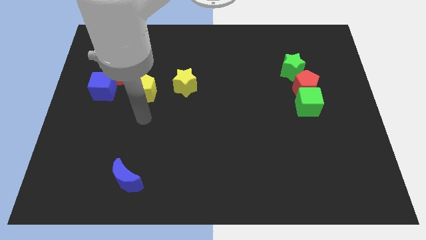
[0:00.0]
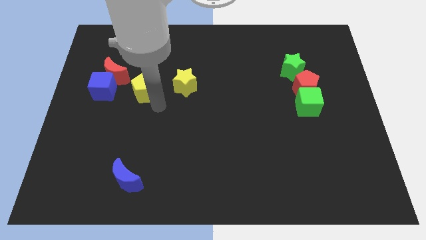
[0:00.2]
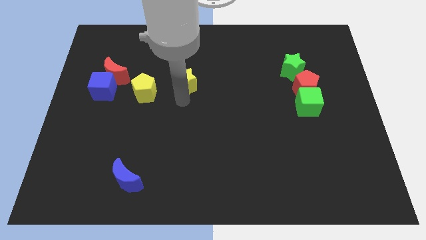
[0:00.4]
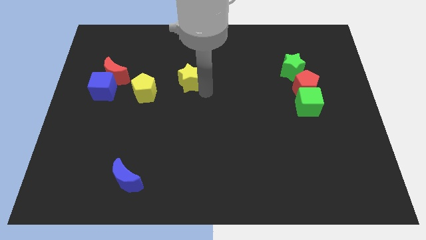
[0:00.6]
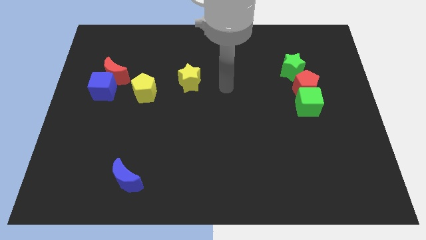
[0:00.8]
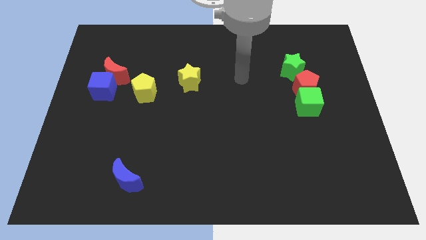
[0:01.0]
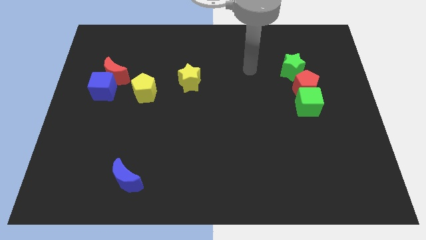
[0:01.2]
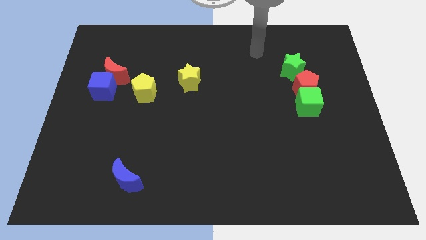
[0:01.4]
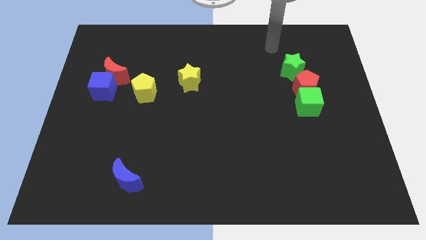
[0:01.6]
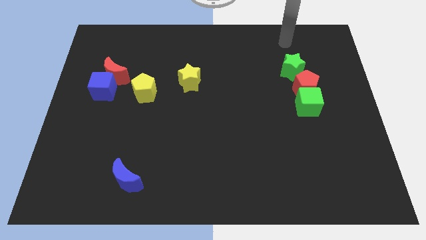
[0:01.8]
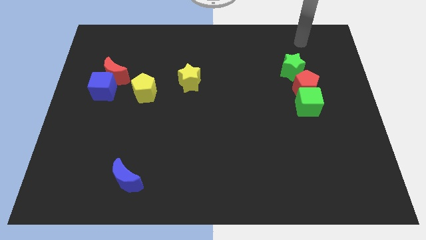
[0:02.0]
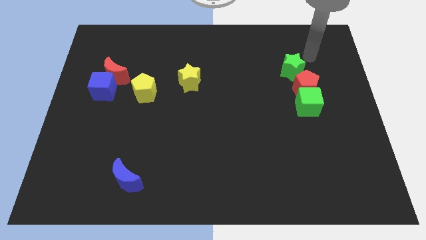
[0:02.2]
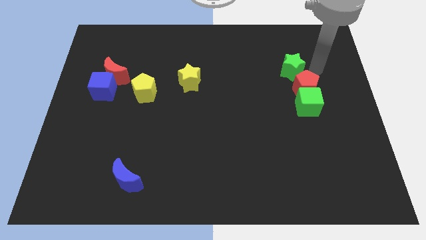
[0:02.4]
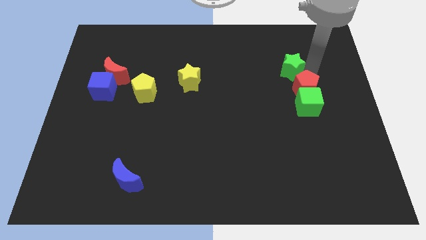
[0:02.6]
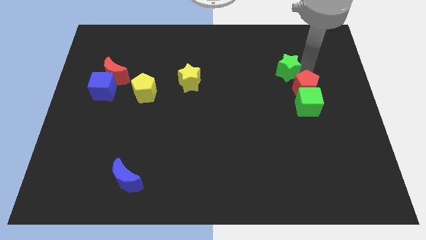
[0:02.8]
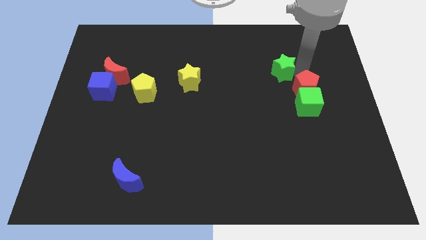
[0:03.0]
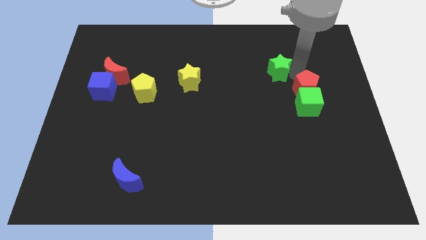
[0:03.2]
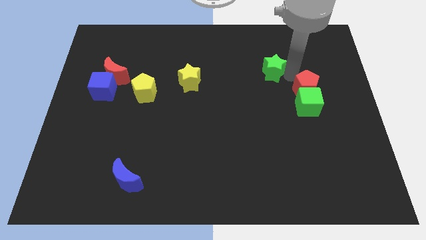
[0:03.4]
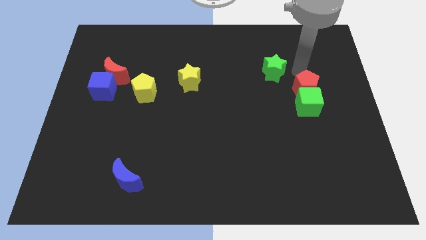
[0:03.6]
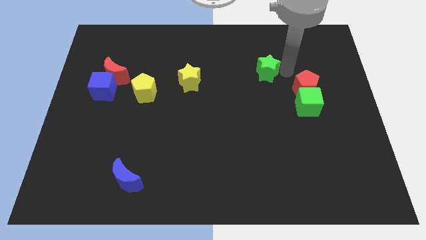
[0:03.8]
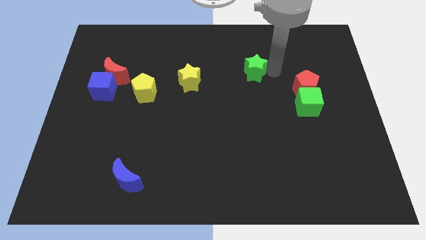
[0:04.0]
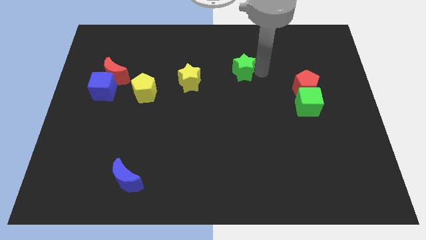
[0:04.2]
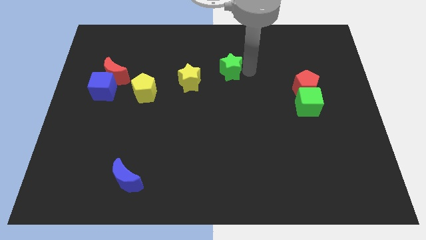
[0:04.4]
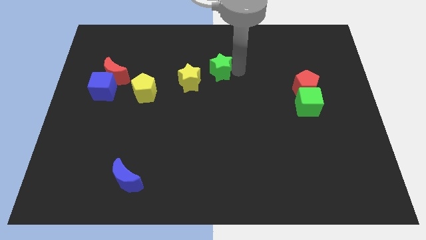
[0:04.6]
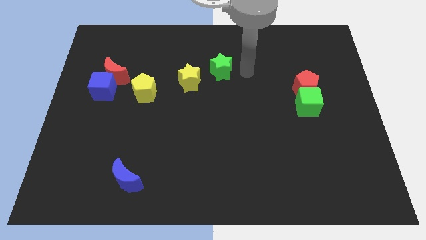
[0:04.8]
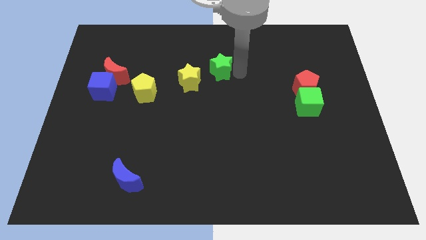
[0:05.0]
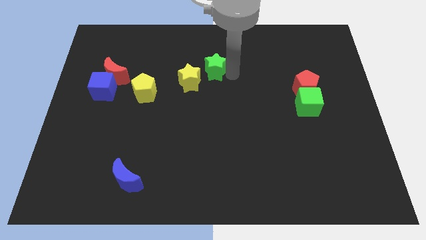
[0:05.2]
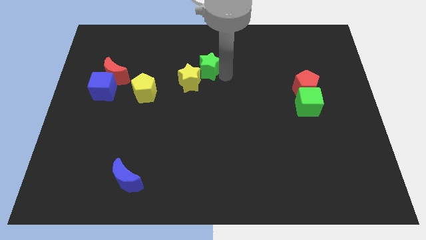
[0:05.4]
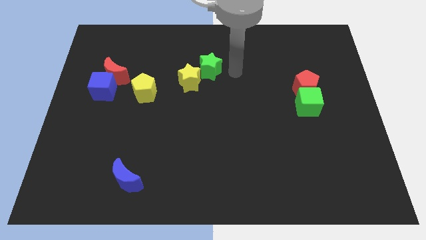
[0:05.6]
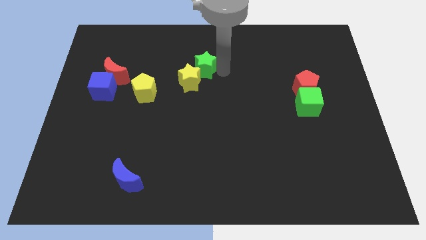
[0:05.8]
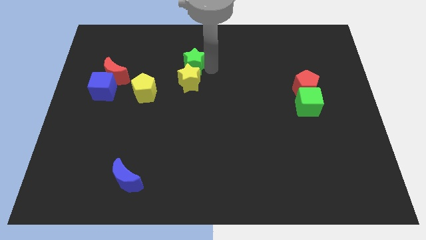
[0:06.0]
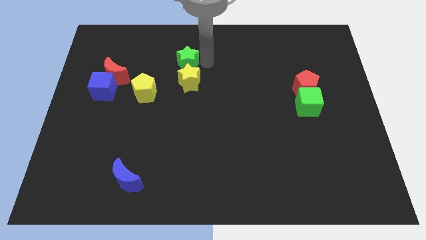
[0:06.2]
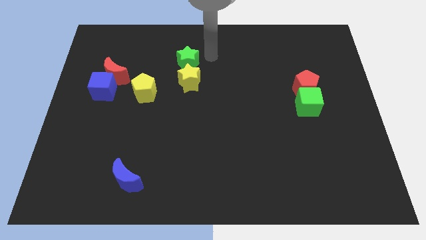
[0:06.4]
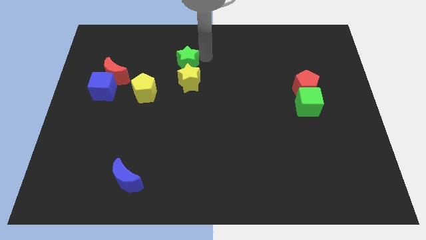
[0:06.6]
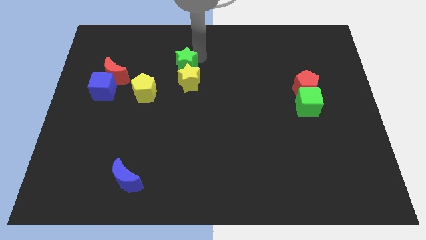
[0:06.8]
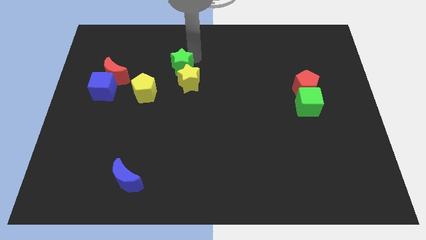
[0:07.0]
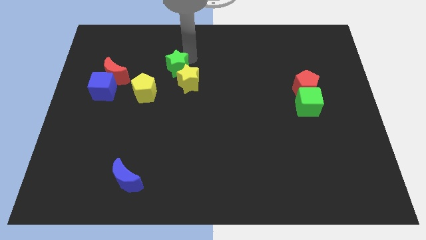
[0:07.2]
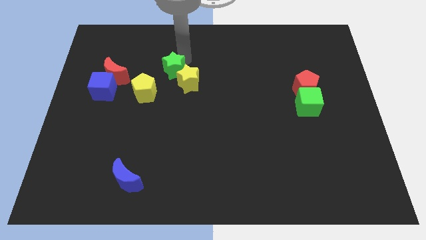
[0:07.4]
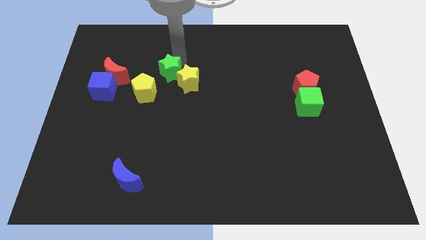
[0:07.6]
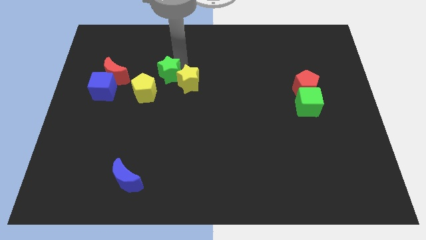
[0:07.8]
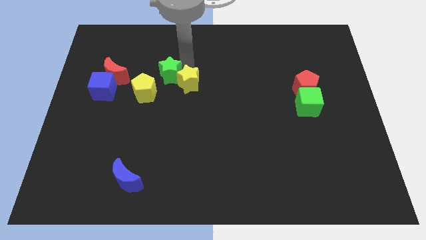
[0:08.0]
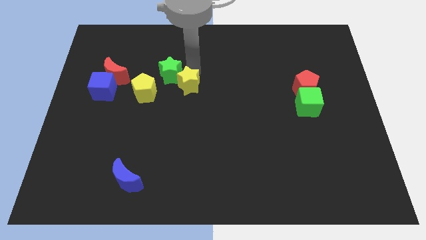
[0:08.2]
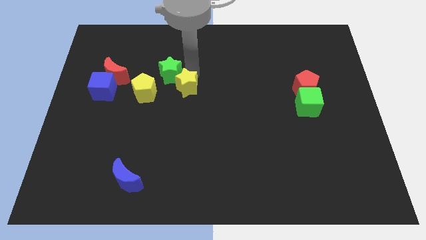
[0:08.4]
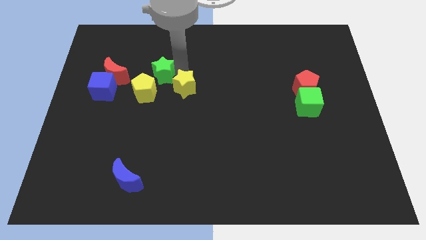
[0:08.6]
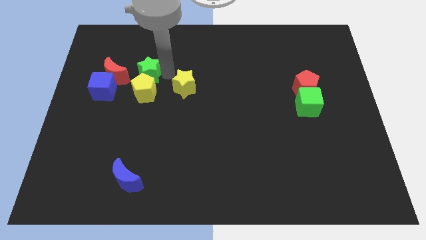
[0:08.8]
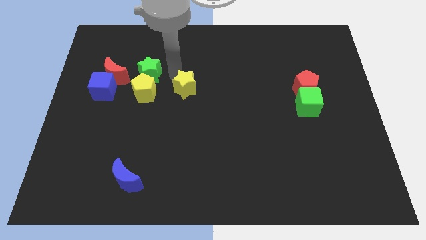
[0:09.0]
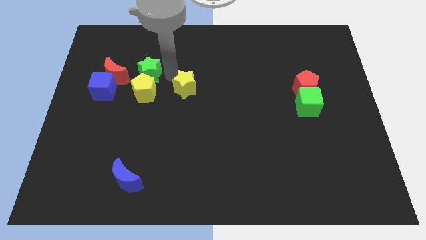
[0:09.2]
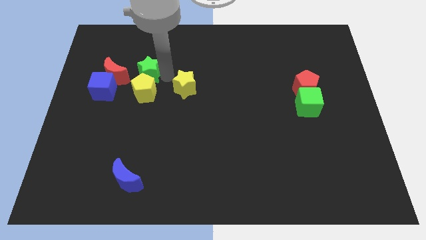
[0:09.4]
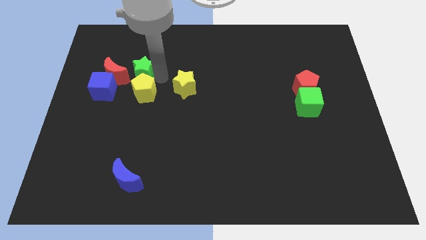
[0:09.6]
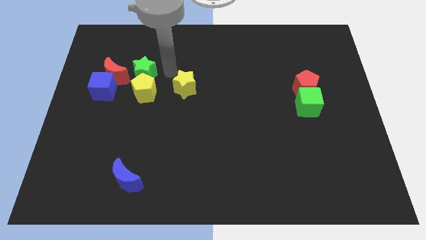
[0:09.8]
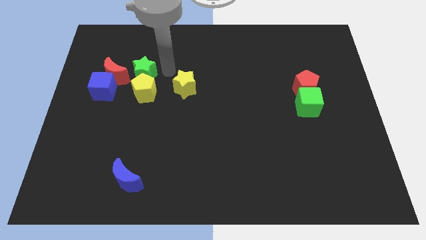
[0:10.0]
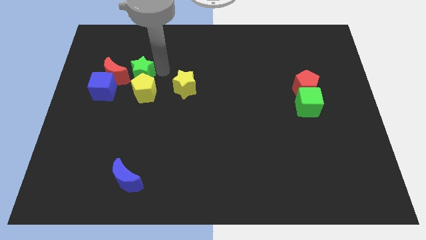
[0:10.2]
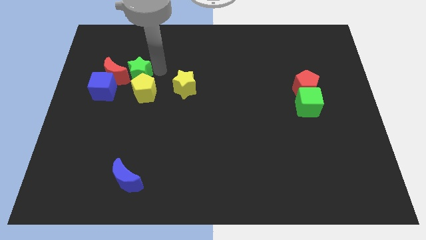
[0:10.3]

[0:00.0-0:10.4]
put the green star towards the red moon
